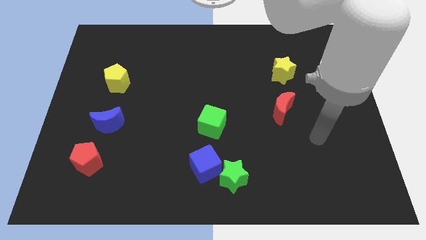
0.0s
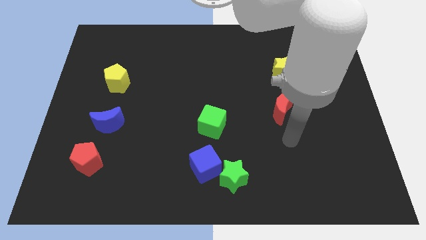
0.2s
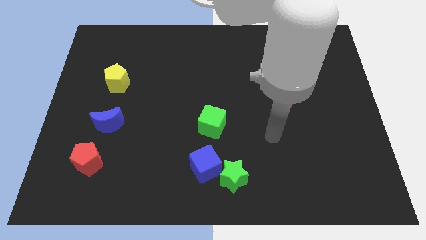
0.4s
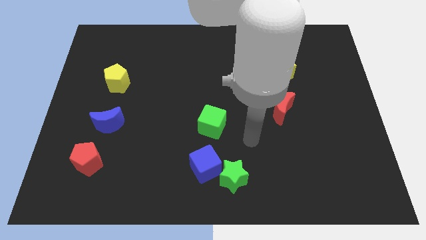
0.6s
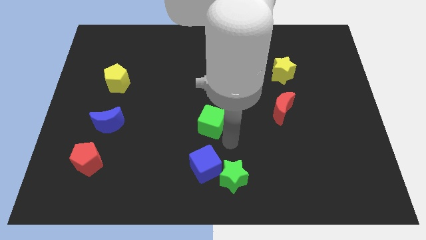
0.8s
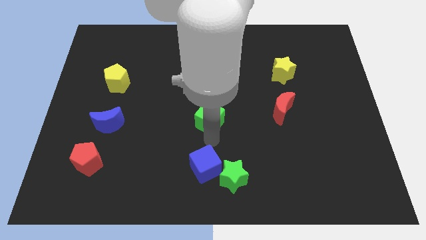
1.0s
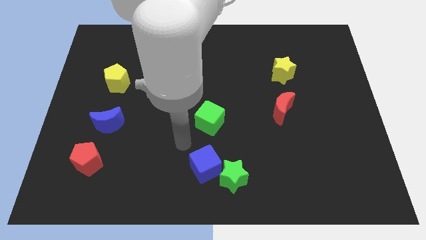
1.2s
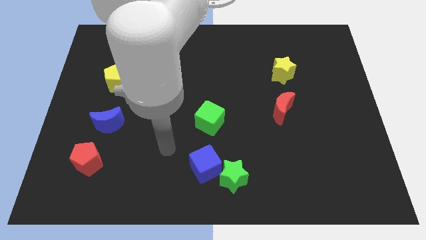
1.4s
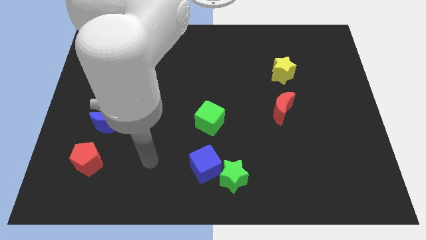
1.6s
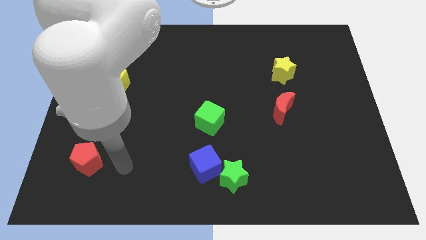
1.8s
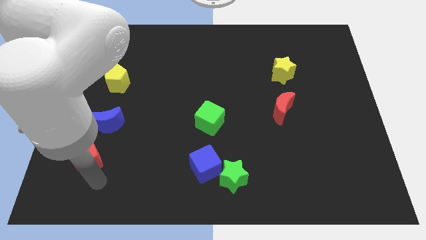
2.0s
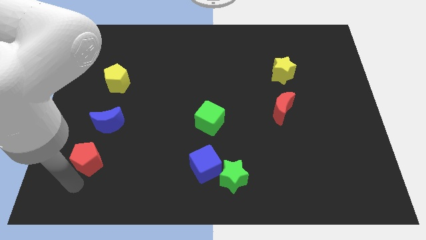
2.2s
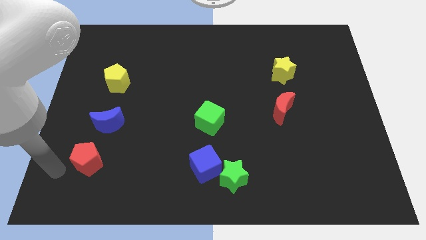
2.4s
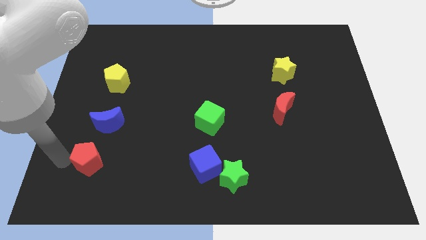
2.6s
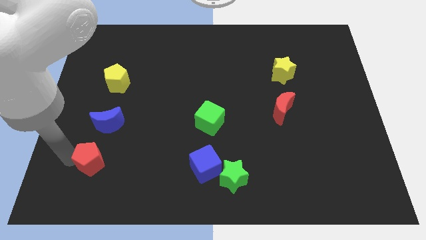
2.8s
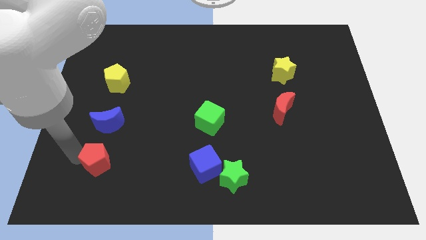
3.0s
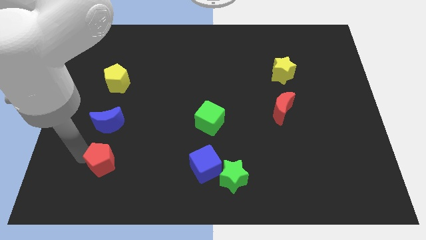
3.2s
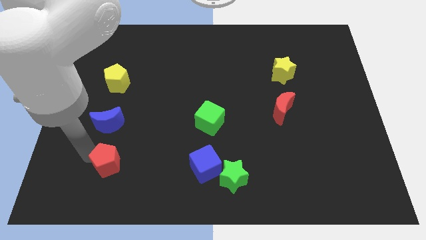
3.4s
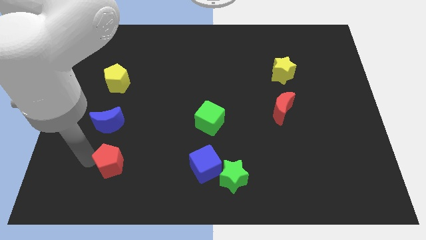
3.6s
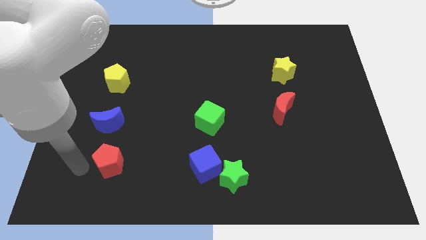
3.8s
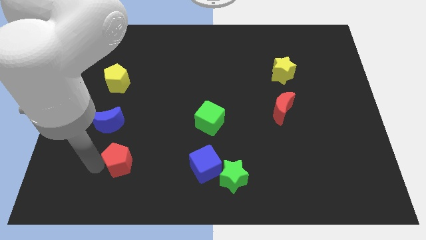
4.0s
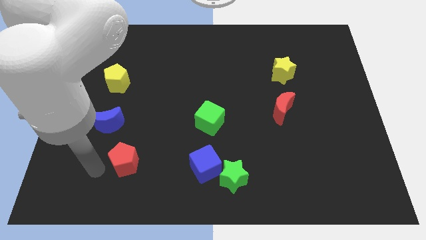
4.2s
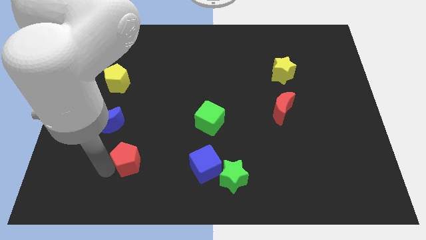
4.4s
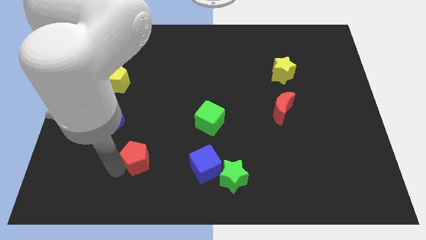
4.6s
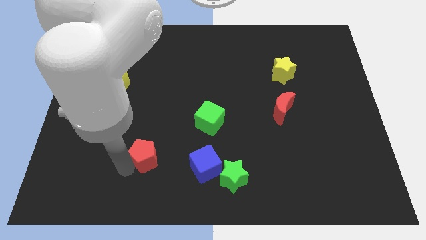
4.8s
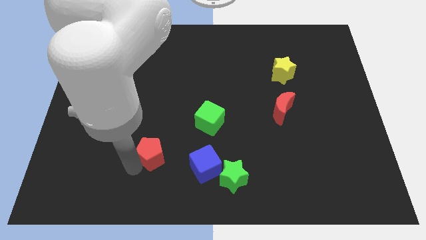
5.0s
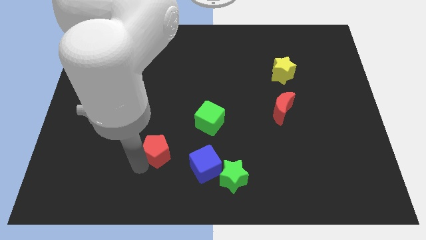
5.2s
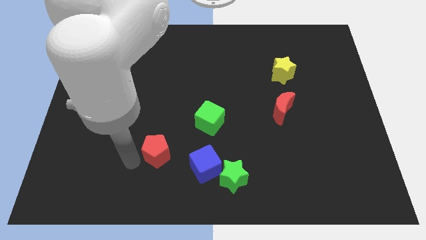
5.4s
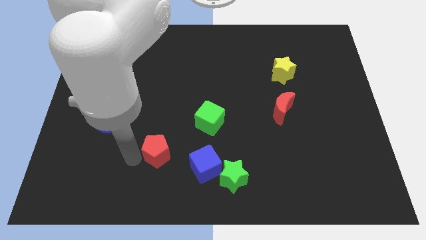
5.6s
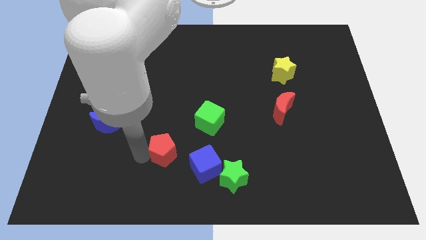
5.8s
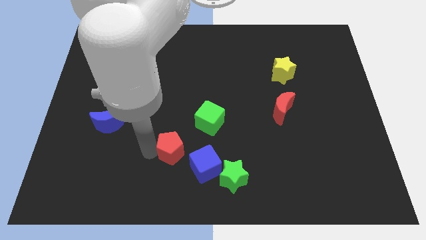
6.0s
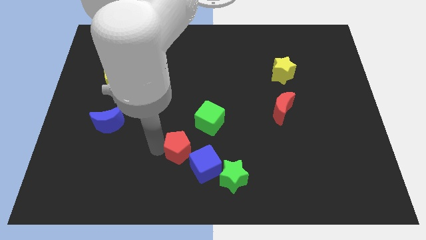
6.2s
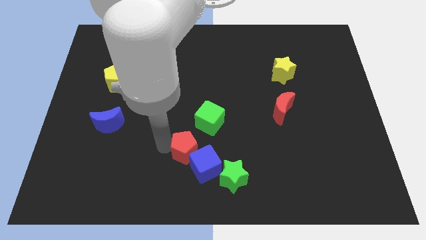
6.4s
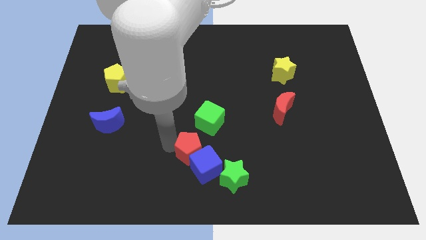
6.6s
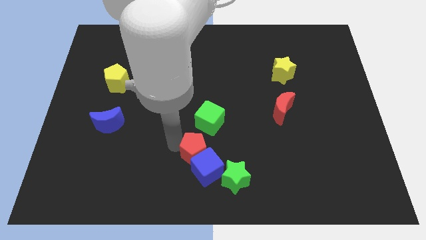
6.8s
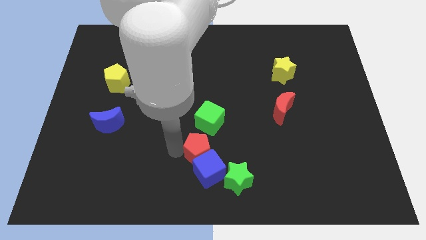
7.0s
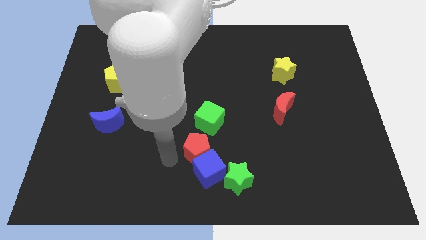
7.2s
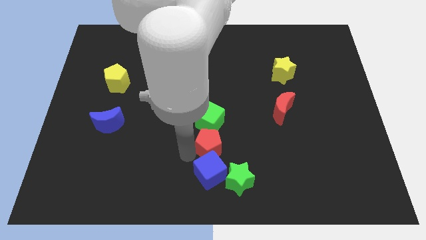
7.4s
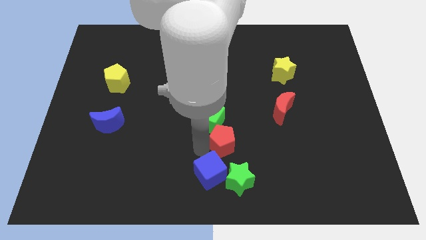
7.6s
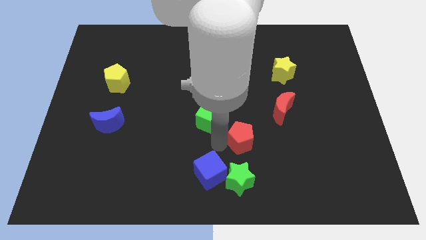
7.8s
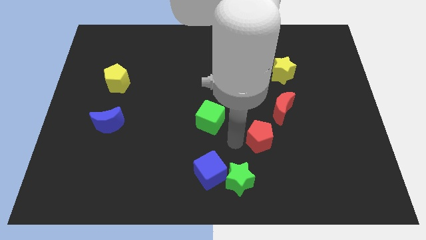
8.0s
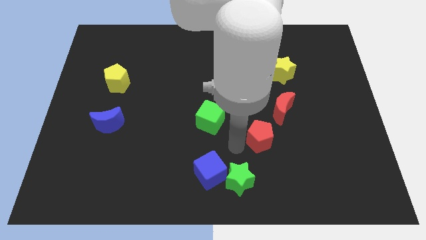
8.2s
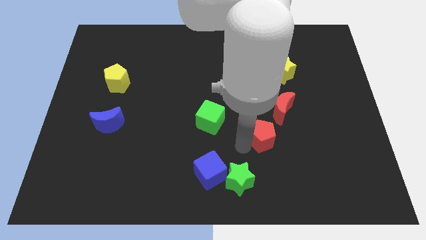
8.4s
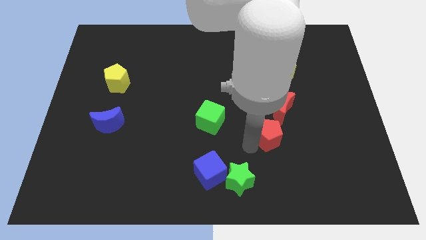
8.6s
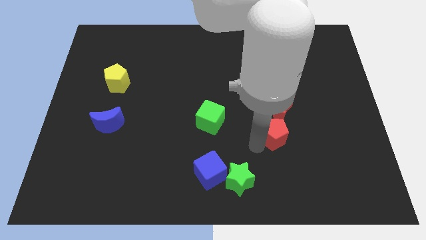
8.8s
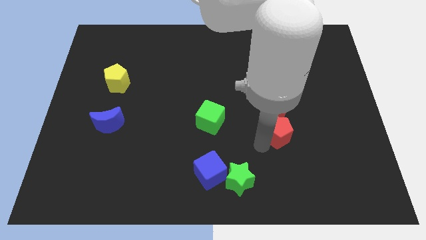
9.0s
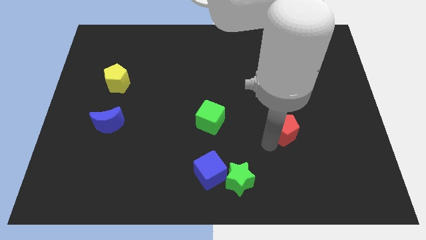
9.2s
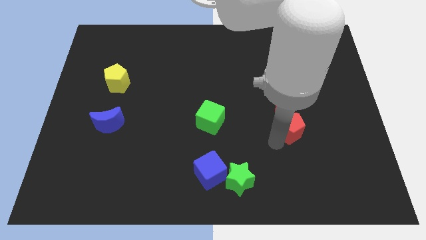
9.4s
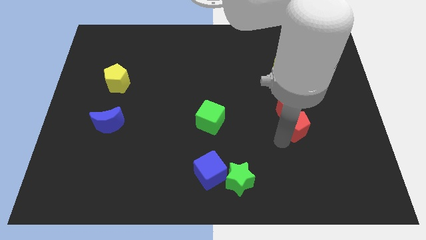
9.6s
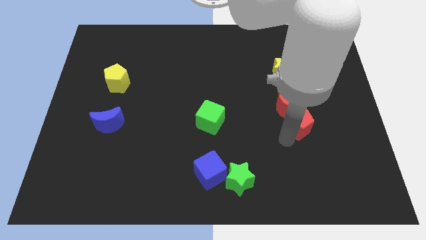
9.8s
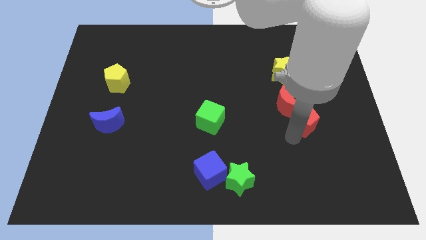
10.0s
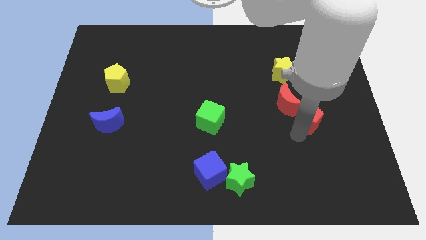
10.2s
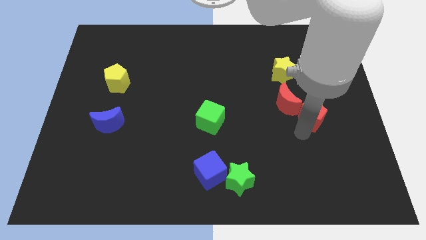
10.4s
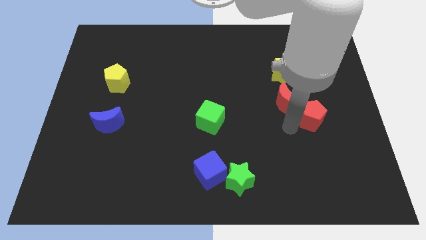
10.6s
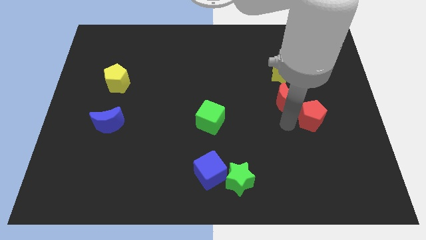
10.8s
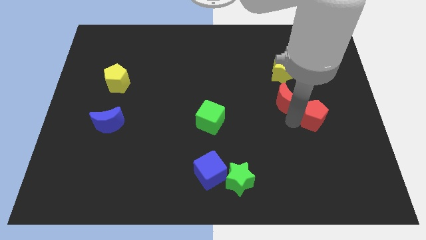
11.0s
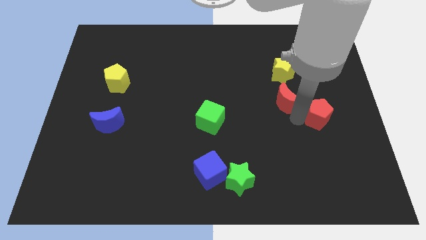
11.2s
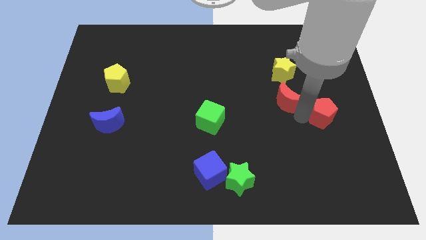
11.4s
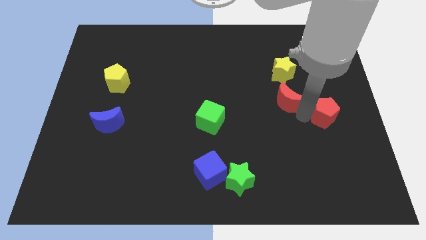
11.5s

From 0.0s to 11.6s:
slide the red pentagon to the right side of the board

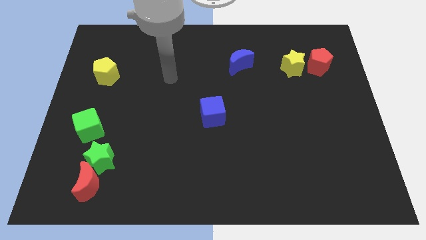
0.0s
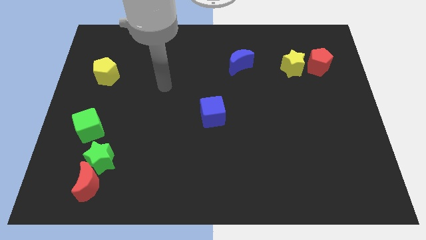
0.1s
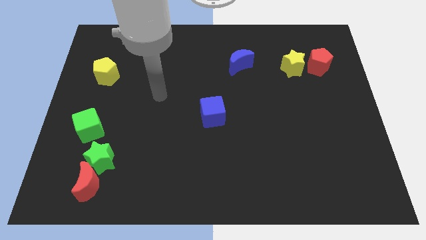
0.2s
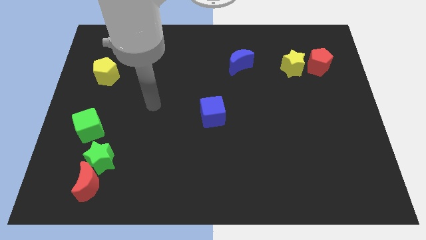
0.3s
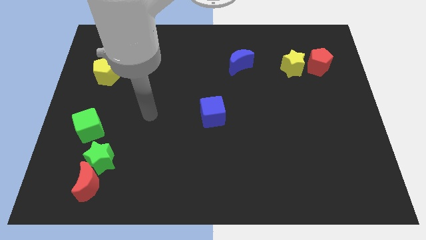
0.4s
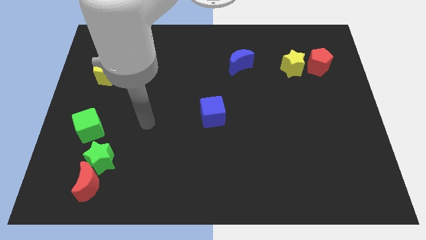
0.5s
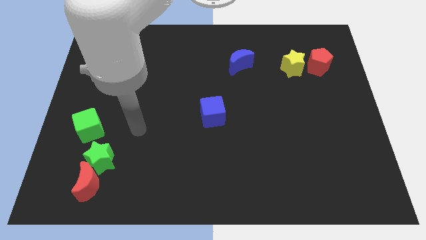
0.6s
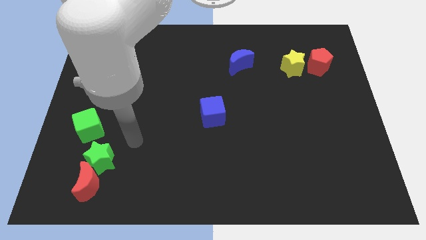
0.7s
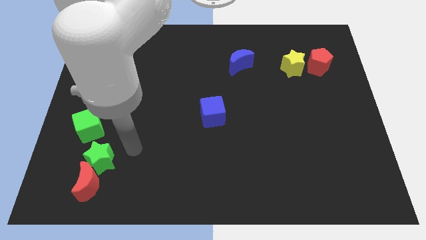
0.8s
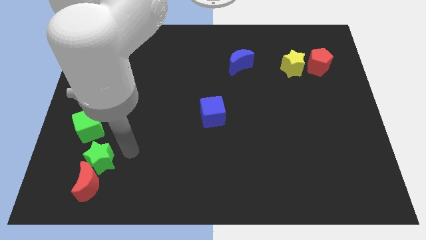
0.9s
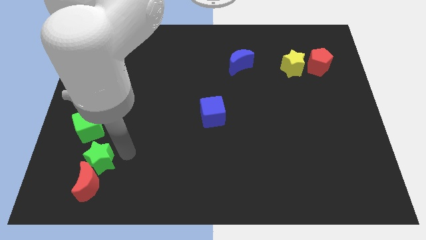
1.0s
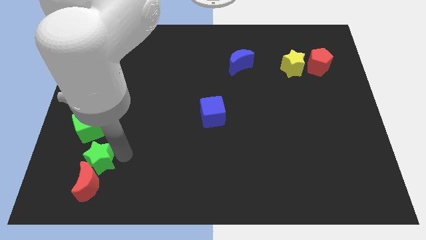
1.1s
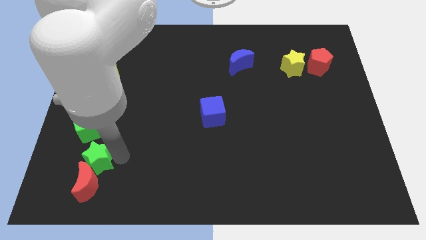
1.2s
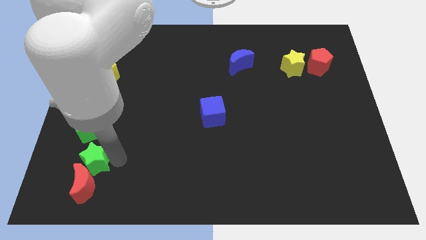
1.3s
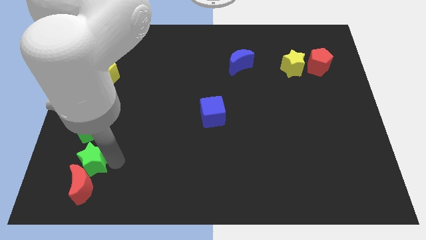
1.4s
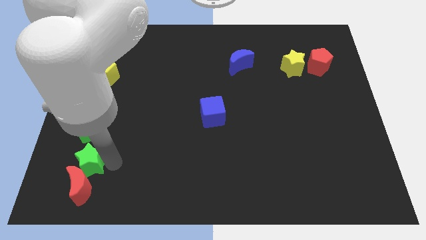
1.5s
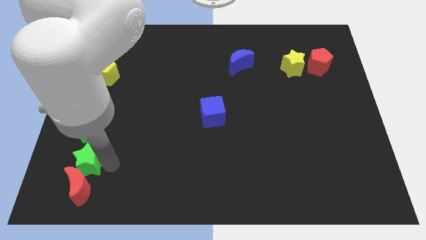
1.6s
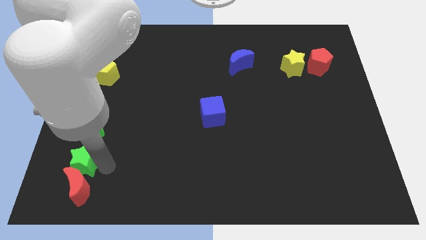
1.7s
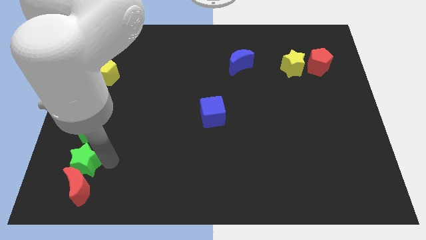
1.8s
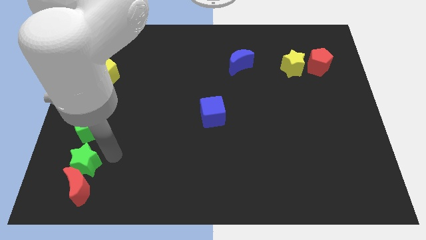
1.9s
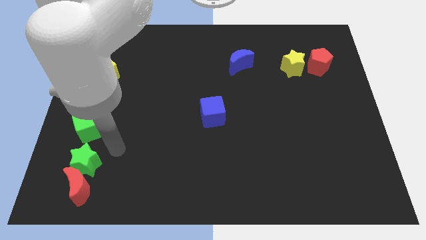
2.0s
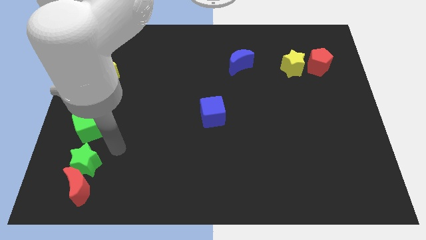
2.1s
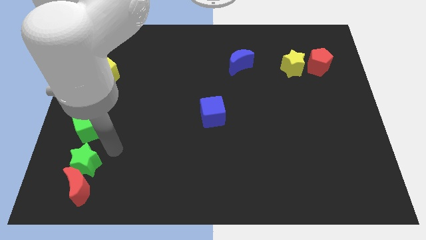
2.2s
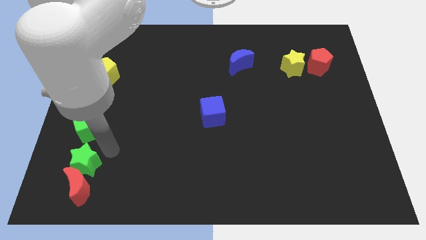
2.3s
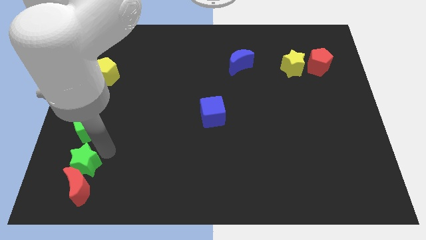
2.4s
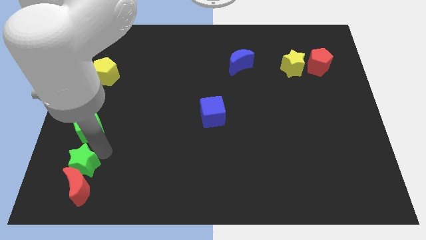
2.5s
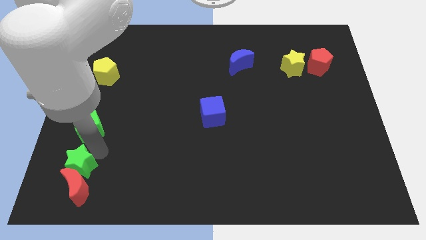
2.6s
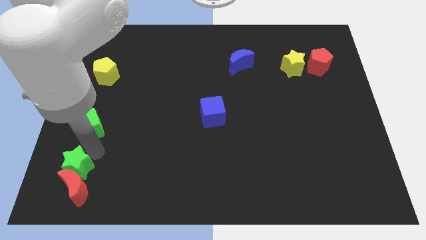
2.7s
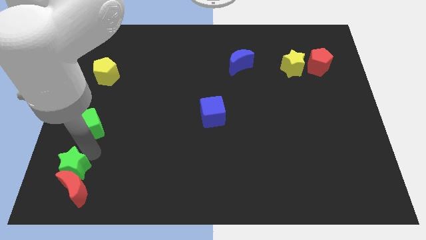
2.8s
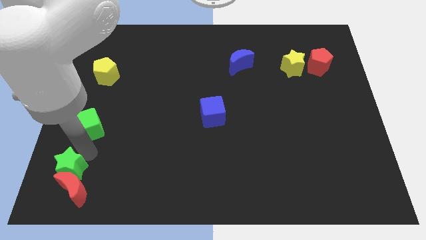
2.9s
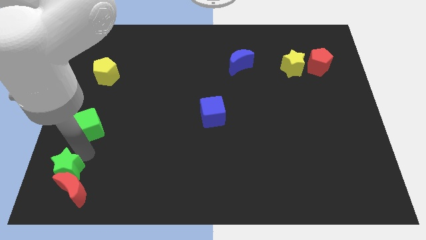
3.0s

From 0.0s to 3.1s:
push the green star to the bottom left corner
